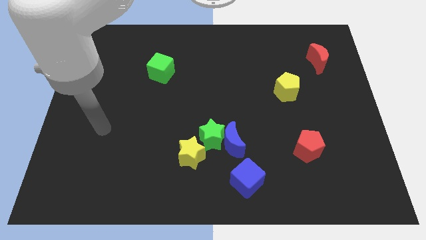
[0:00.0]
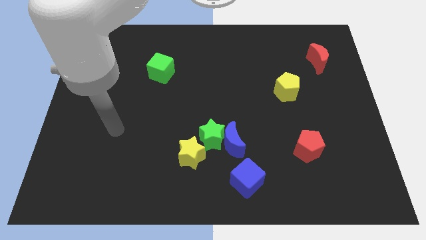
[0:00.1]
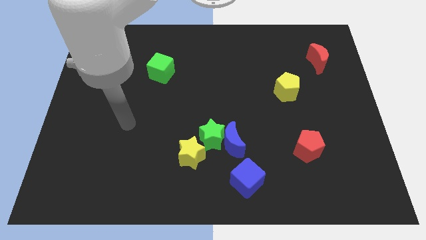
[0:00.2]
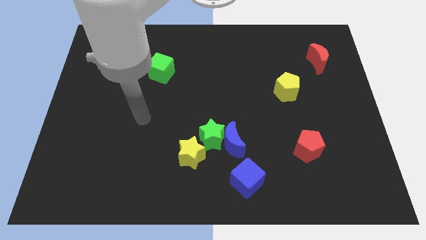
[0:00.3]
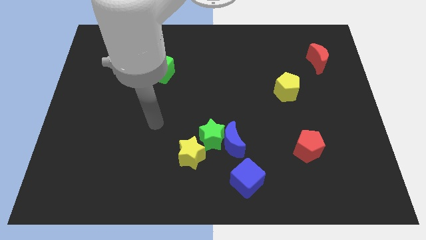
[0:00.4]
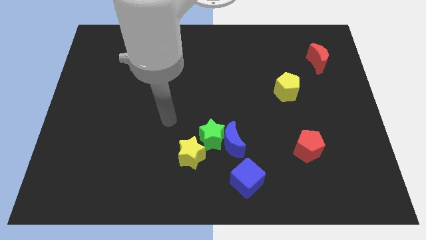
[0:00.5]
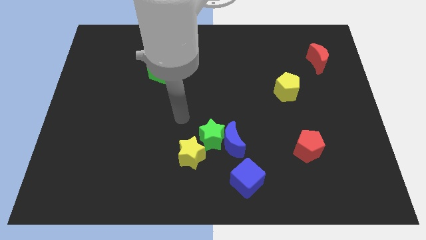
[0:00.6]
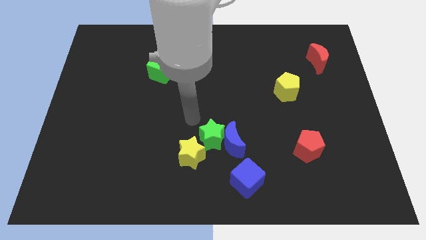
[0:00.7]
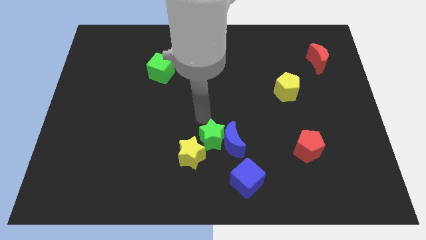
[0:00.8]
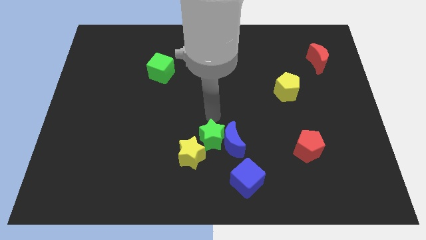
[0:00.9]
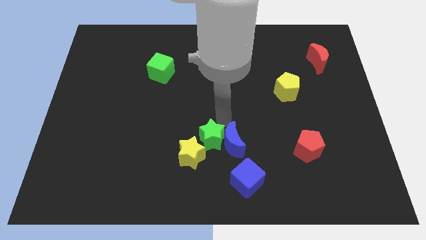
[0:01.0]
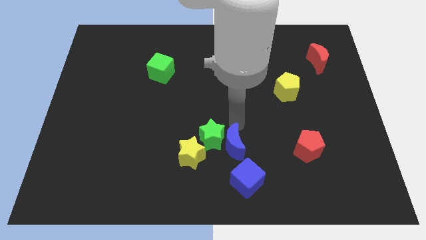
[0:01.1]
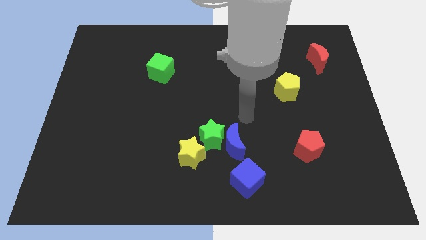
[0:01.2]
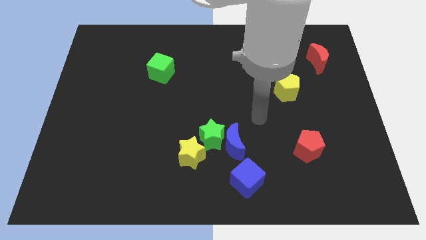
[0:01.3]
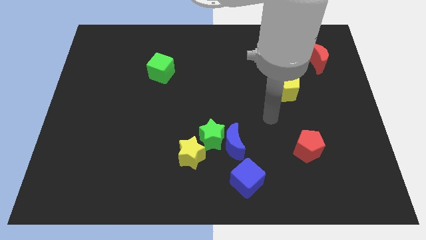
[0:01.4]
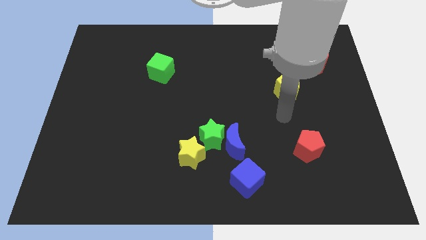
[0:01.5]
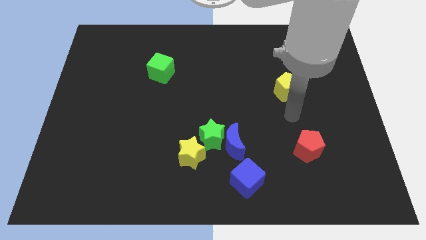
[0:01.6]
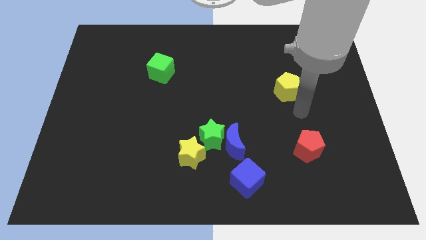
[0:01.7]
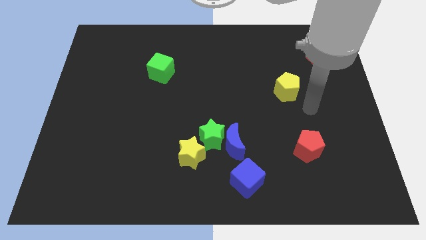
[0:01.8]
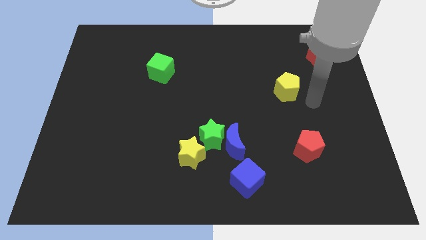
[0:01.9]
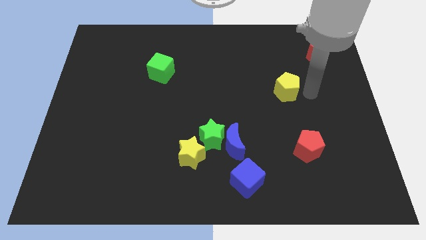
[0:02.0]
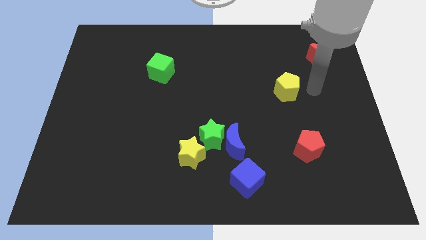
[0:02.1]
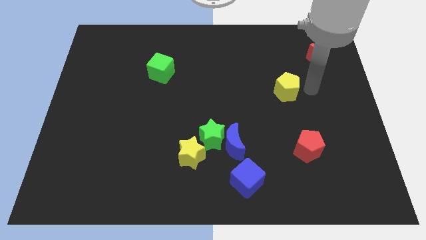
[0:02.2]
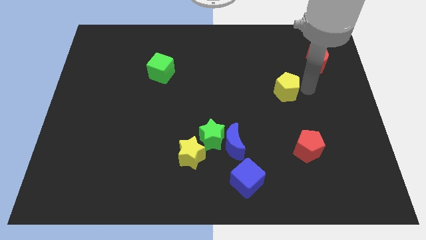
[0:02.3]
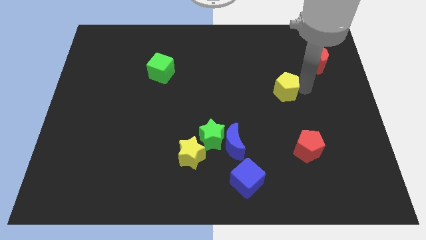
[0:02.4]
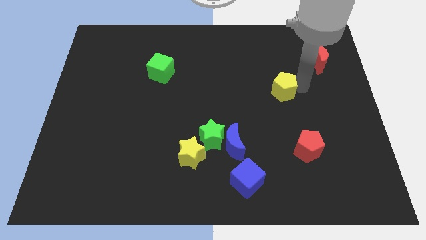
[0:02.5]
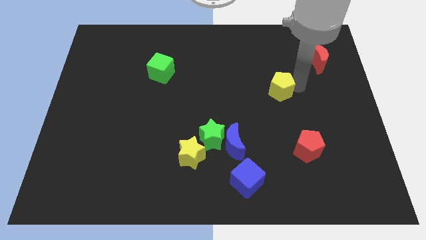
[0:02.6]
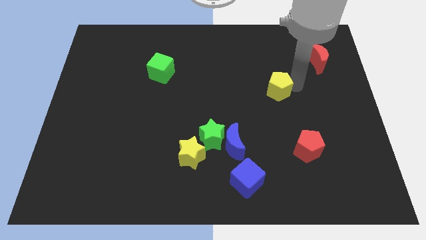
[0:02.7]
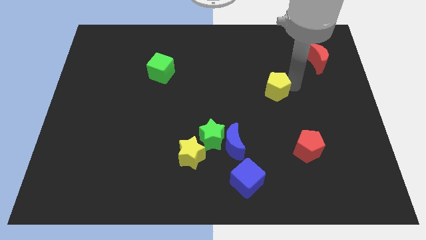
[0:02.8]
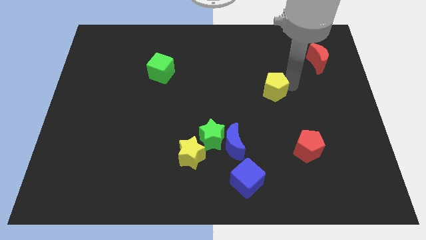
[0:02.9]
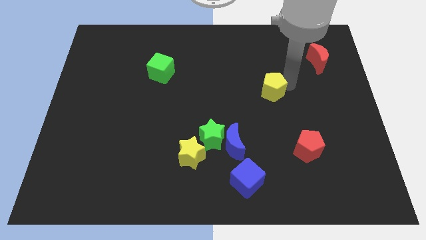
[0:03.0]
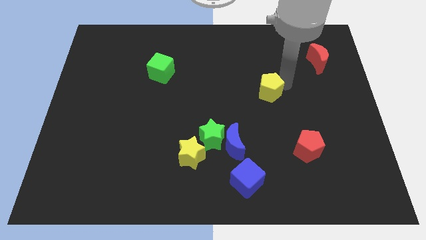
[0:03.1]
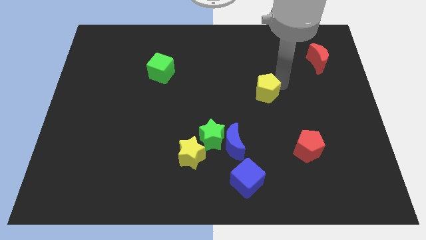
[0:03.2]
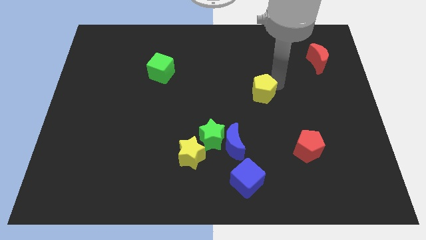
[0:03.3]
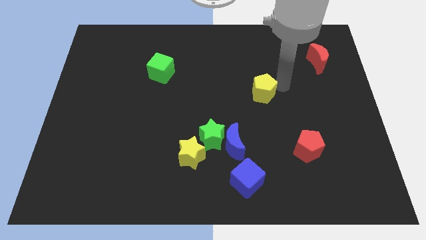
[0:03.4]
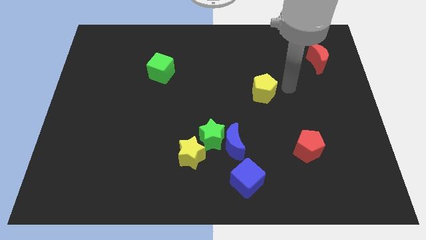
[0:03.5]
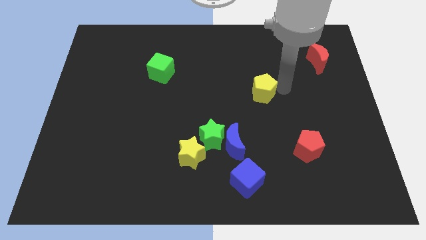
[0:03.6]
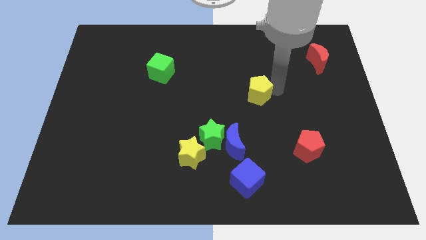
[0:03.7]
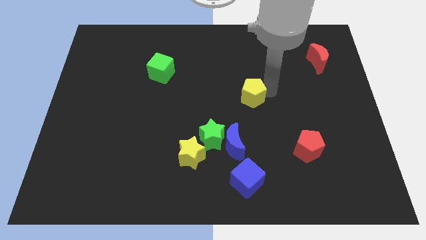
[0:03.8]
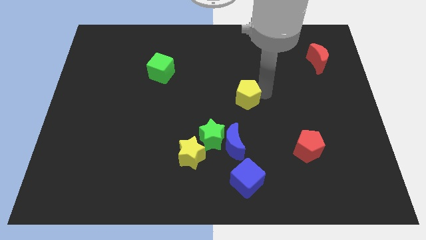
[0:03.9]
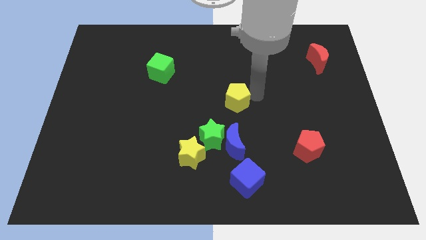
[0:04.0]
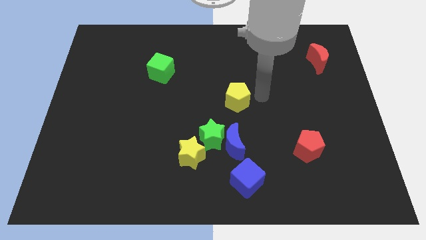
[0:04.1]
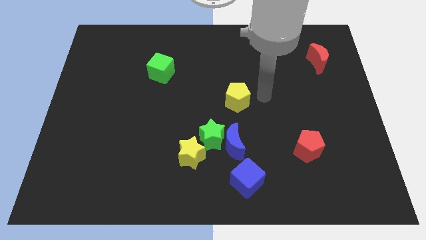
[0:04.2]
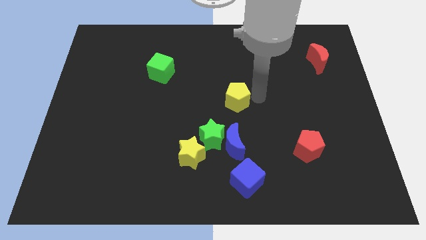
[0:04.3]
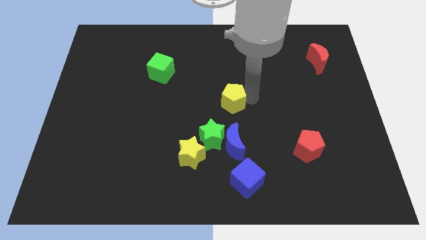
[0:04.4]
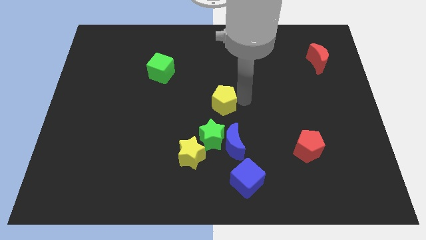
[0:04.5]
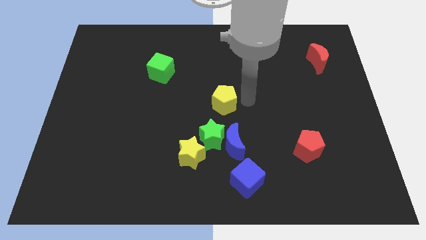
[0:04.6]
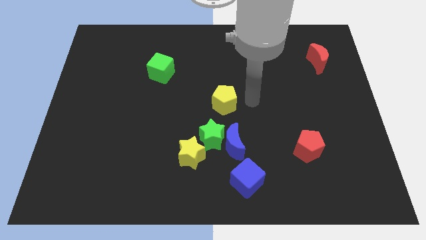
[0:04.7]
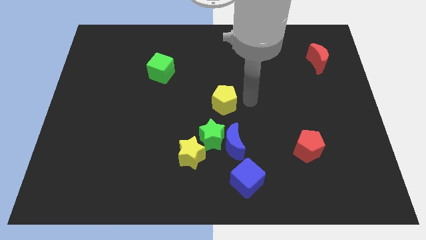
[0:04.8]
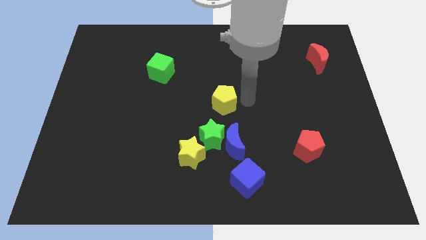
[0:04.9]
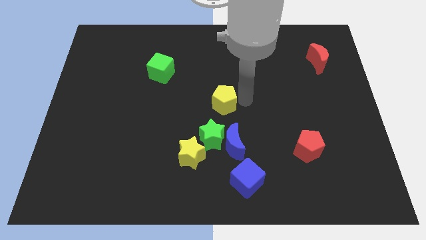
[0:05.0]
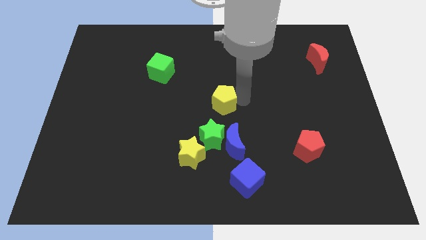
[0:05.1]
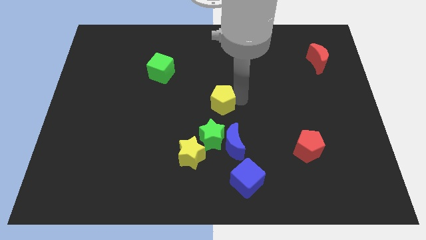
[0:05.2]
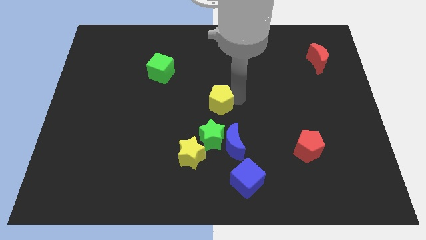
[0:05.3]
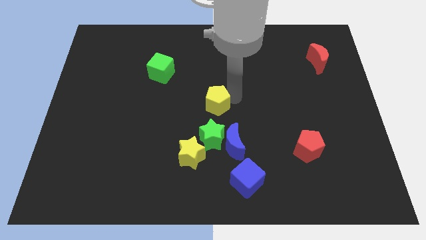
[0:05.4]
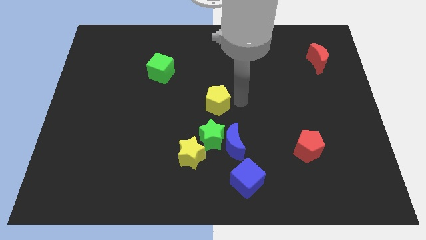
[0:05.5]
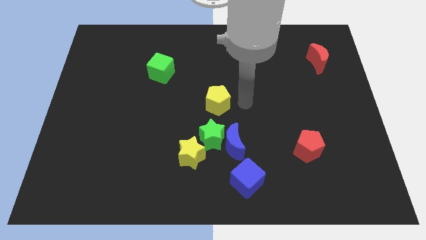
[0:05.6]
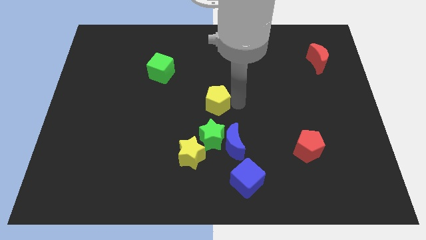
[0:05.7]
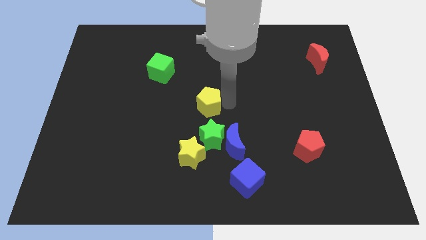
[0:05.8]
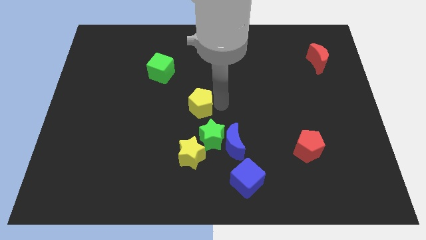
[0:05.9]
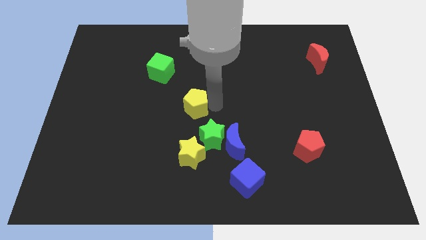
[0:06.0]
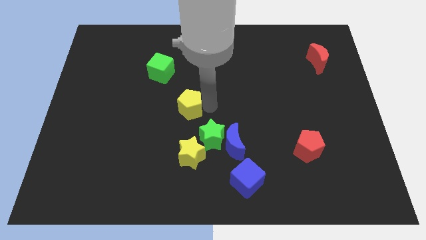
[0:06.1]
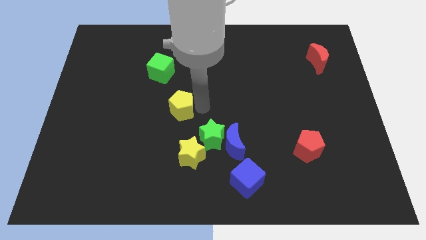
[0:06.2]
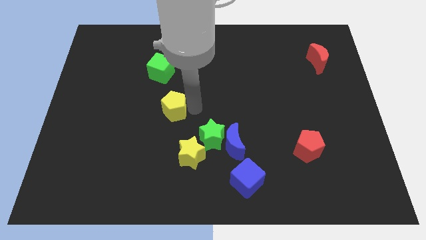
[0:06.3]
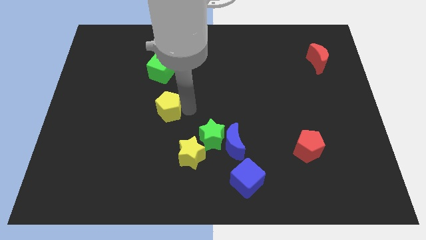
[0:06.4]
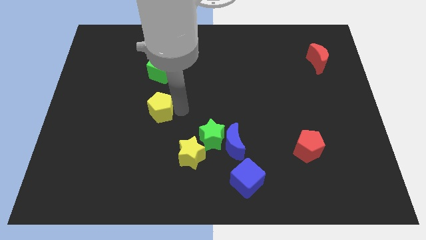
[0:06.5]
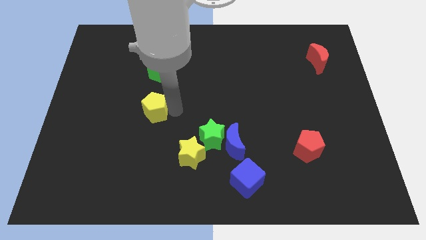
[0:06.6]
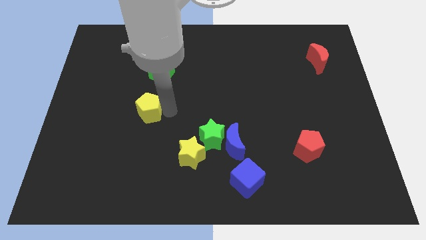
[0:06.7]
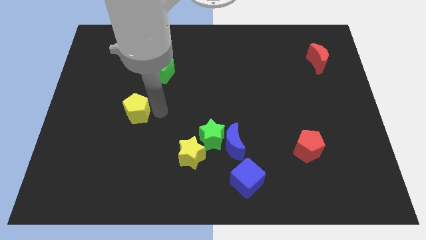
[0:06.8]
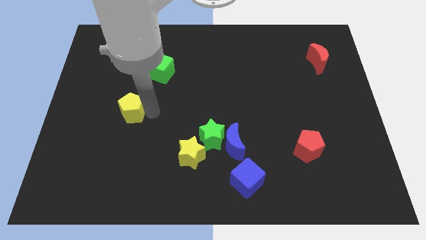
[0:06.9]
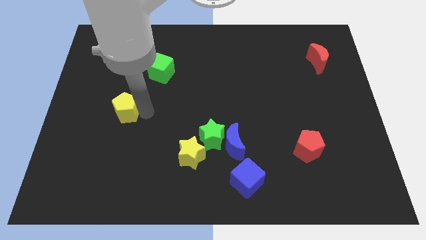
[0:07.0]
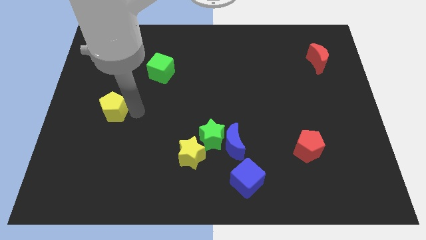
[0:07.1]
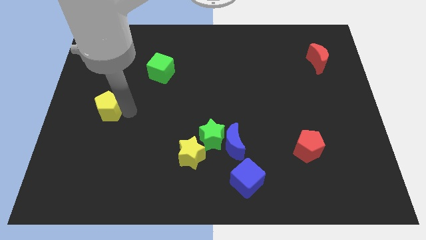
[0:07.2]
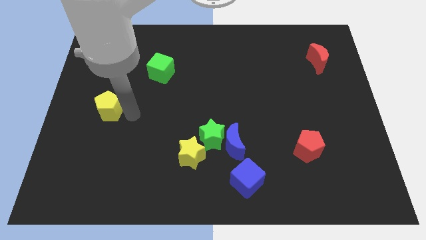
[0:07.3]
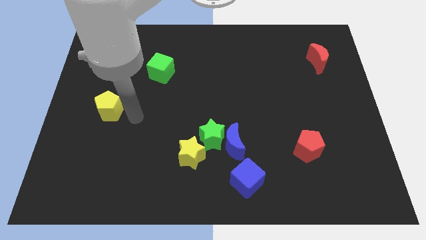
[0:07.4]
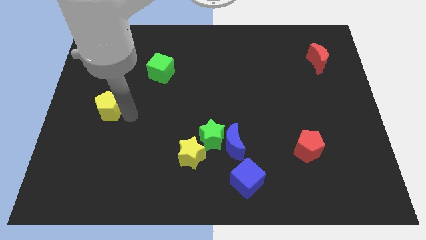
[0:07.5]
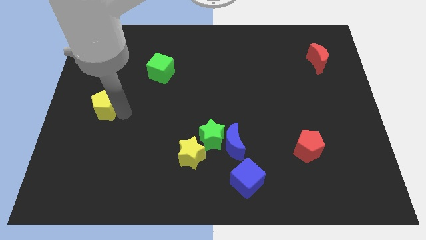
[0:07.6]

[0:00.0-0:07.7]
slide the yellow pentagon to the center left
